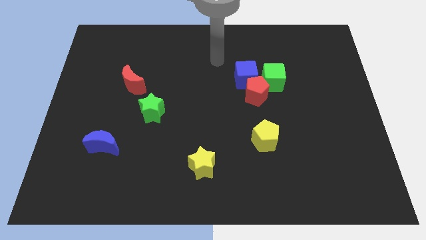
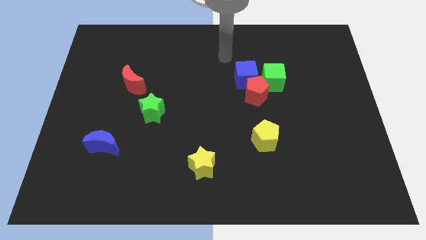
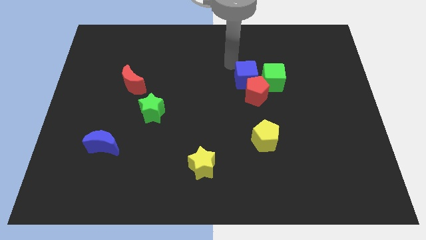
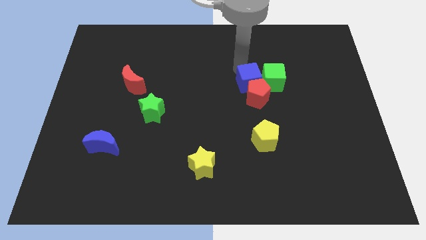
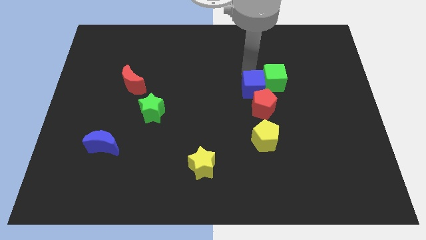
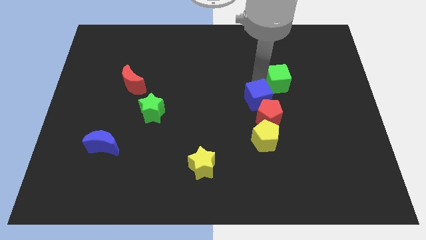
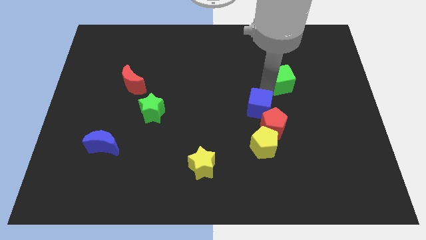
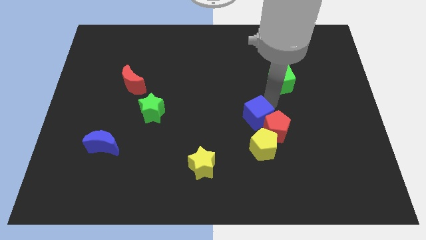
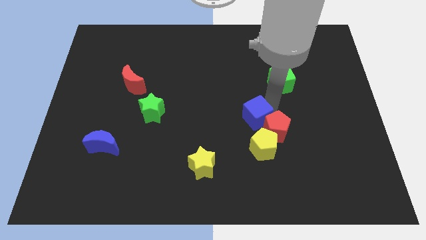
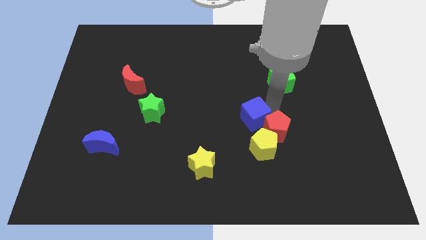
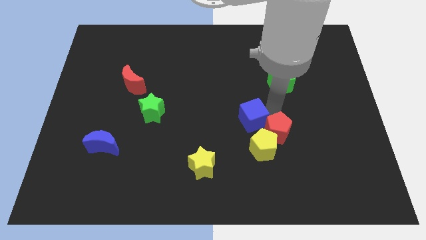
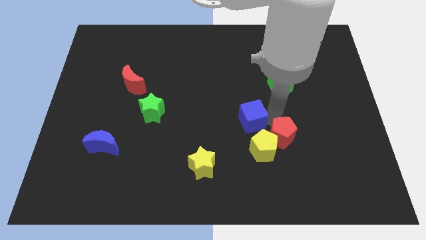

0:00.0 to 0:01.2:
separate the red pentagon from the blue cube and green cube

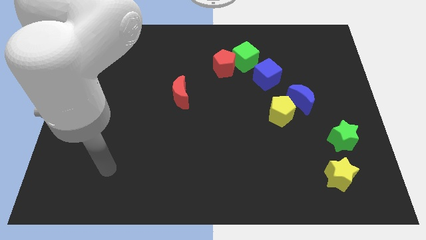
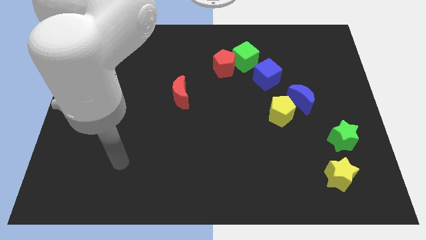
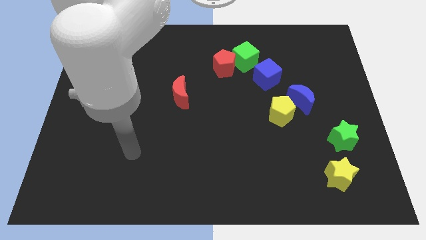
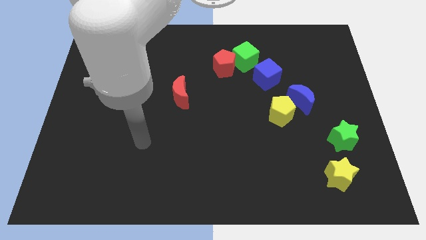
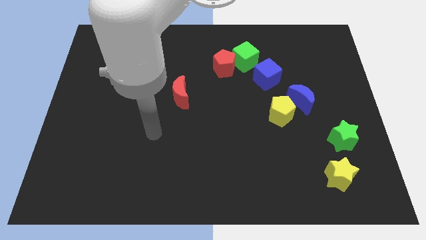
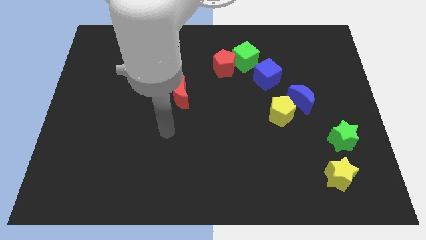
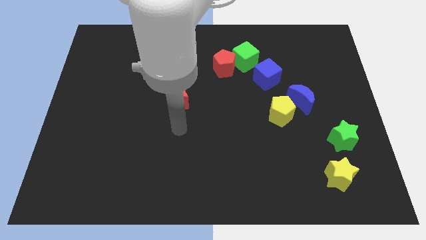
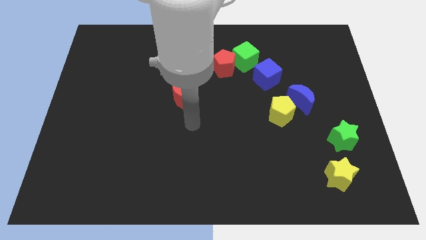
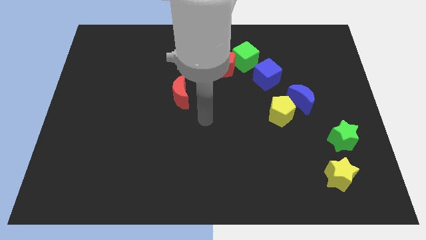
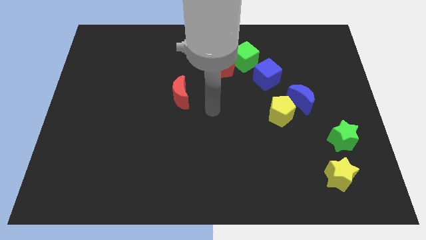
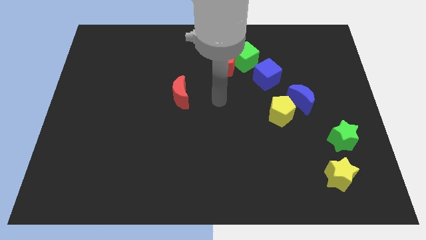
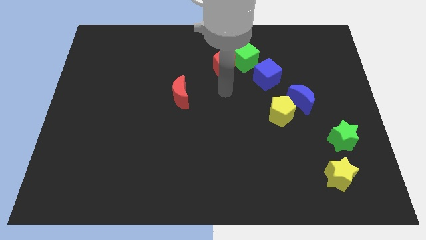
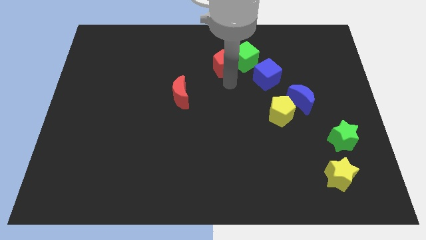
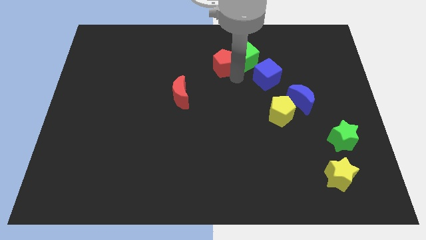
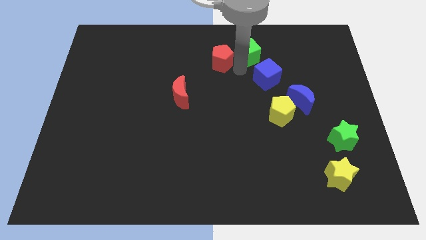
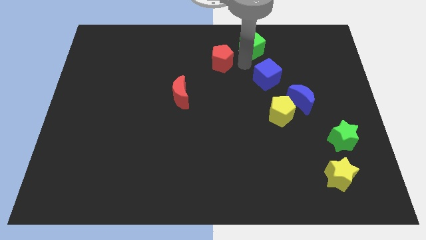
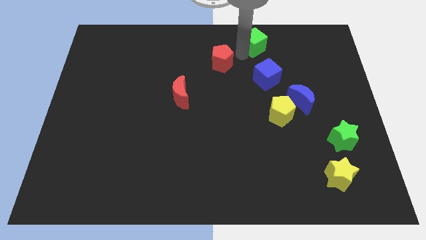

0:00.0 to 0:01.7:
pull the red pentagon apart from the green cube

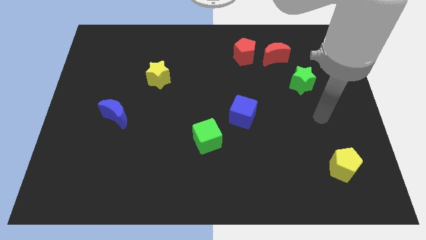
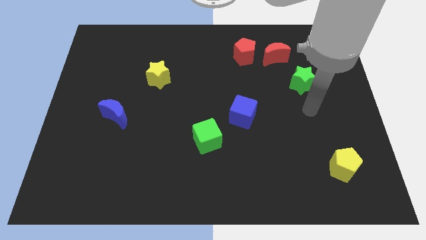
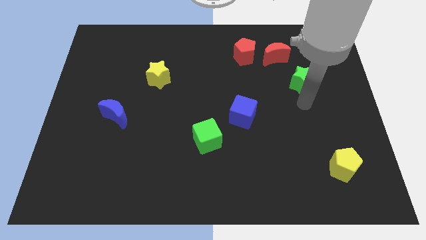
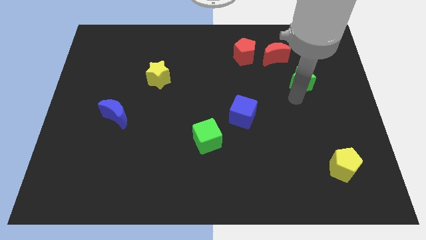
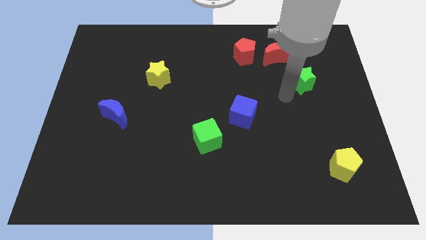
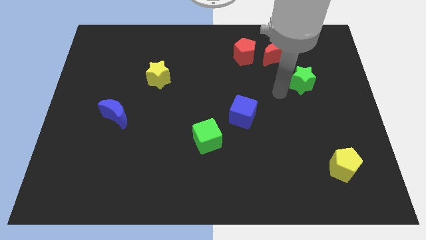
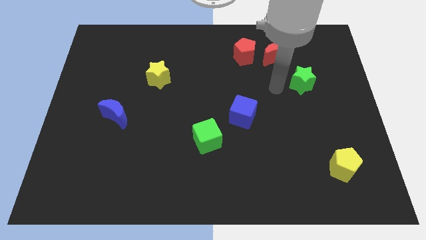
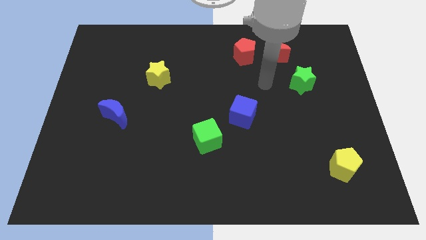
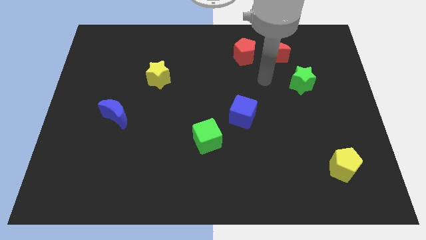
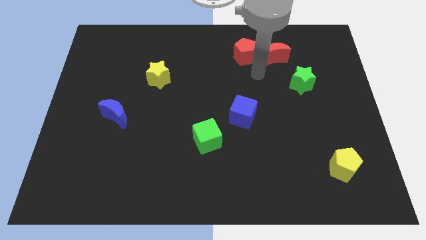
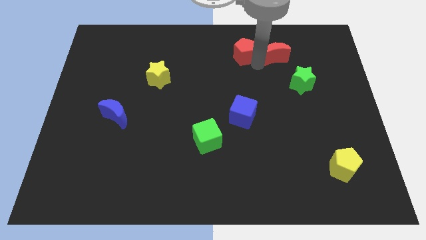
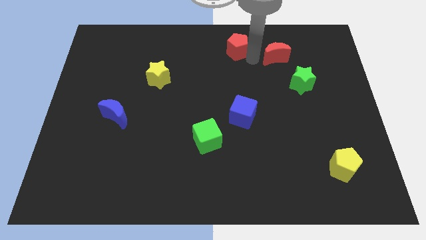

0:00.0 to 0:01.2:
separate the red moon from the red pentagon

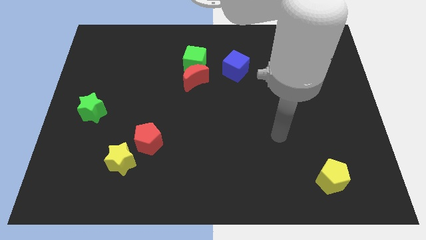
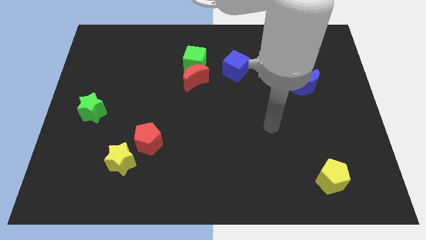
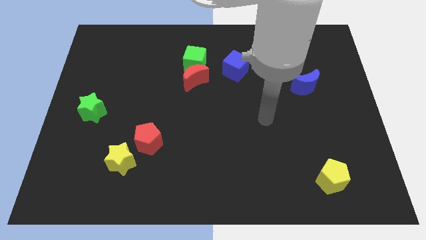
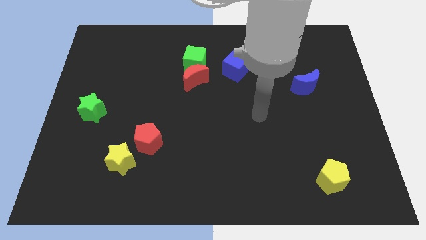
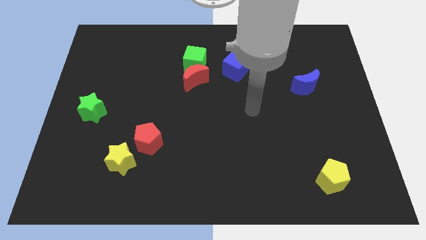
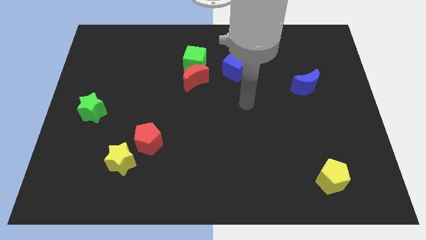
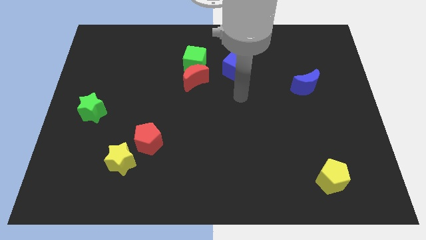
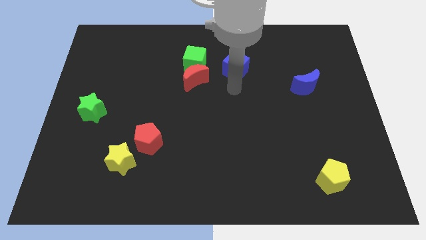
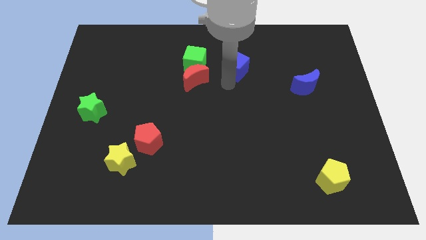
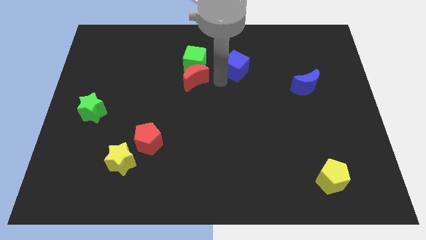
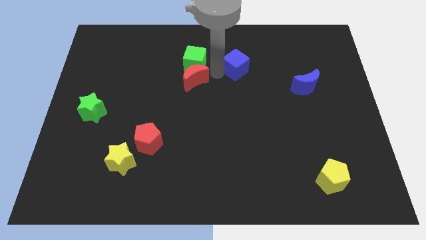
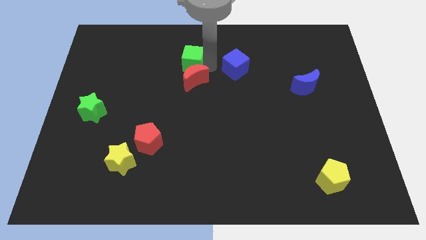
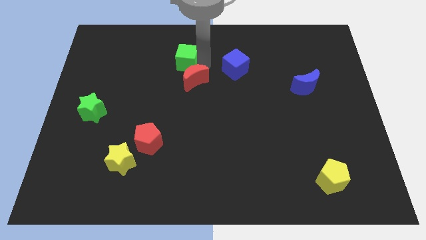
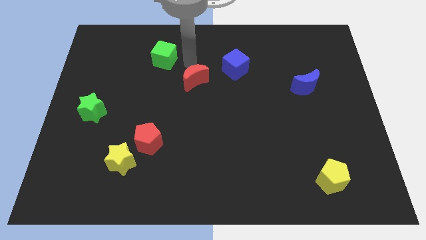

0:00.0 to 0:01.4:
separate the red moon from the green cube

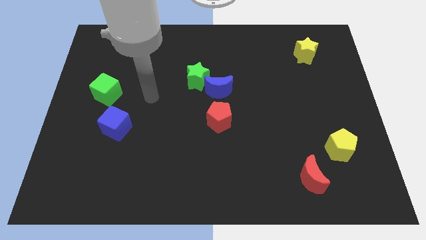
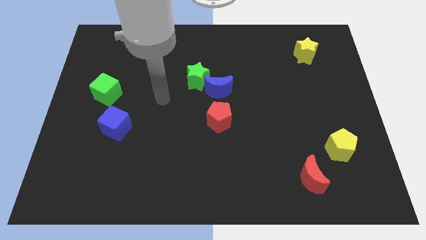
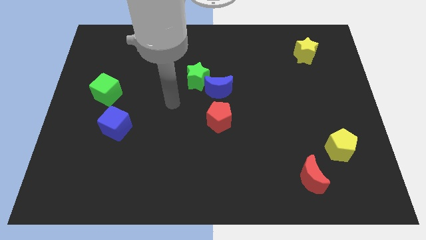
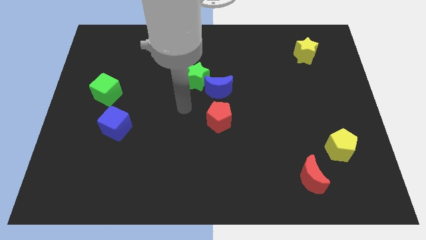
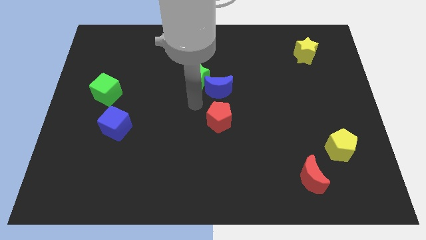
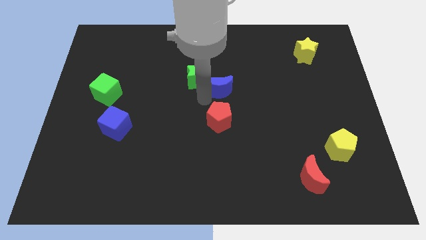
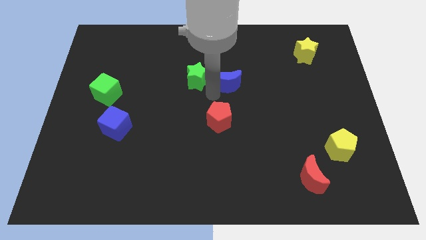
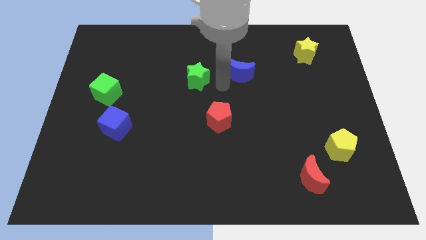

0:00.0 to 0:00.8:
move the green star away from the blue moon

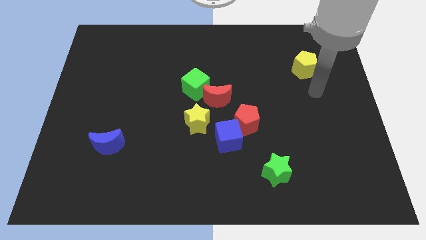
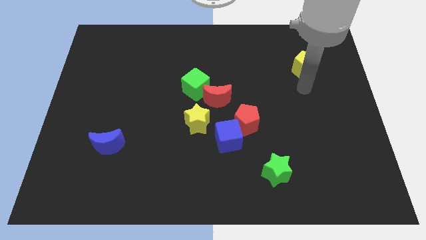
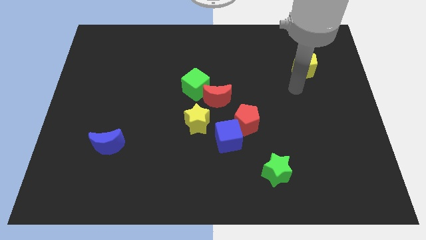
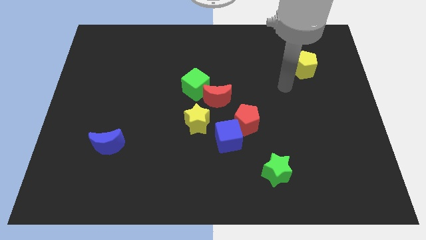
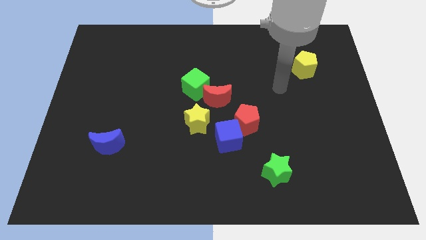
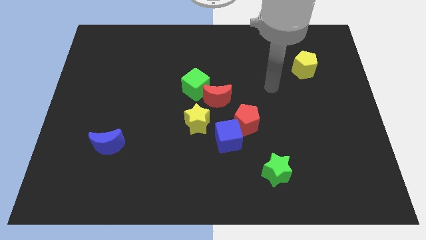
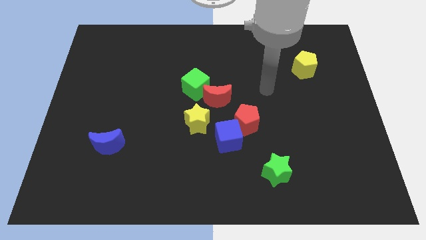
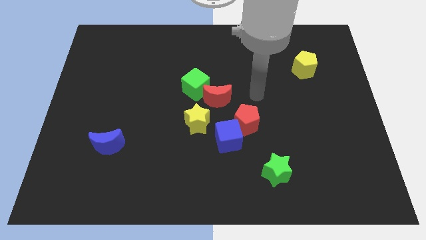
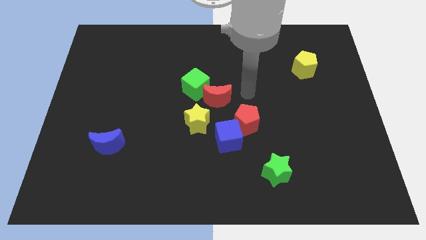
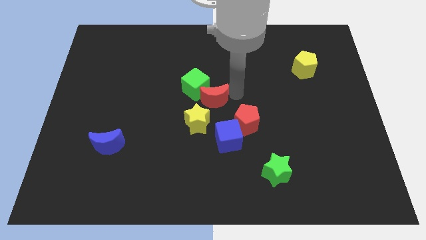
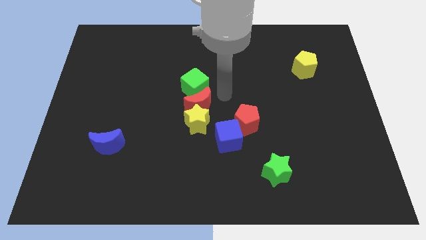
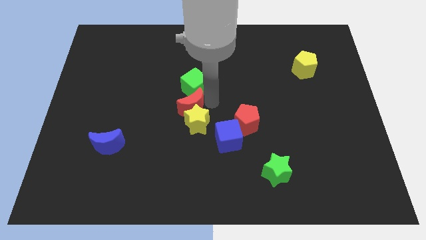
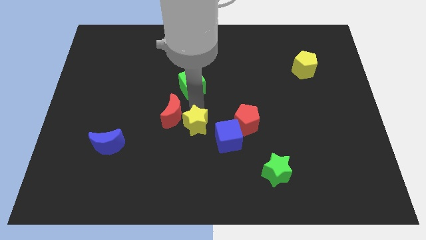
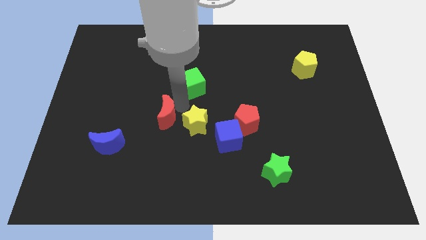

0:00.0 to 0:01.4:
pull the green cube apart from the red moon

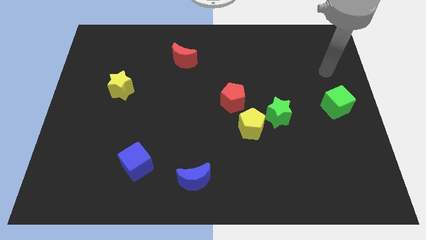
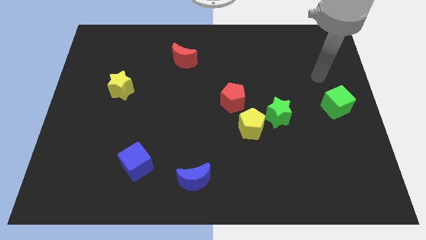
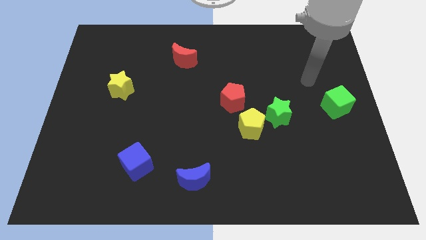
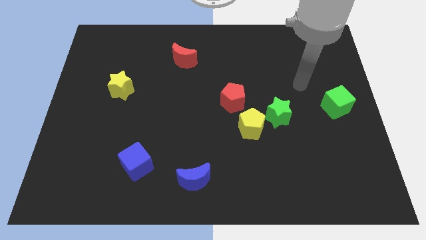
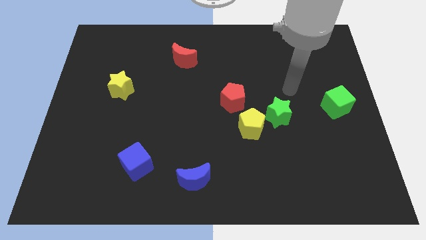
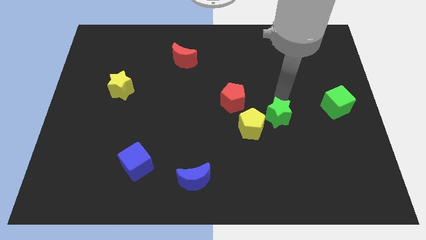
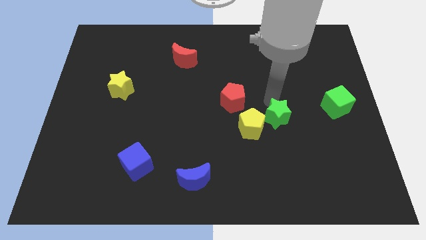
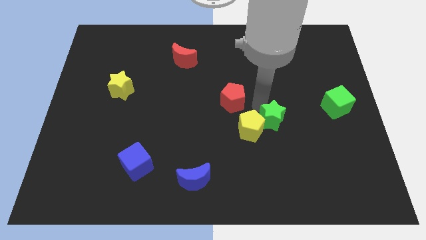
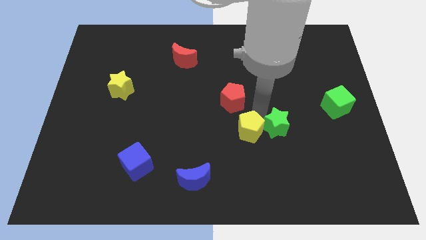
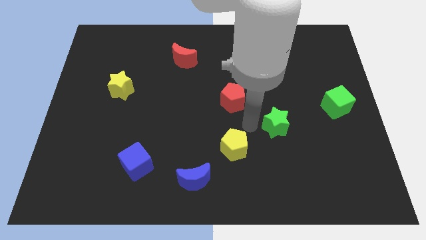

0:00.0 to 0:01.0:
move the green star away from the yellow pentagon

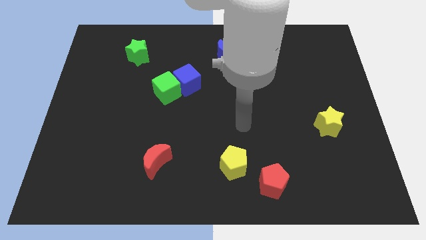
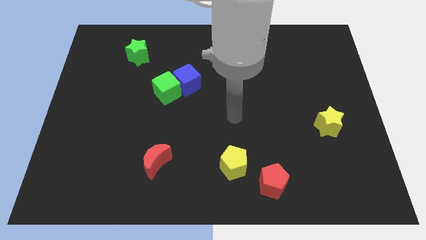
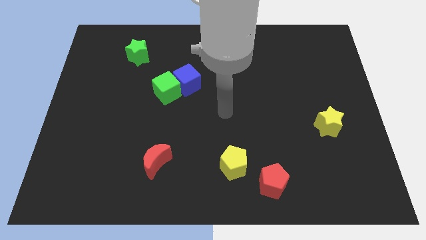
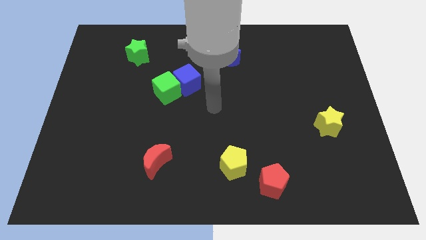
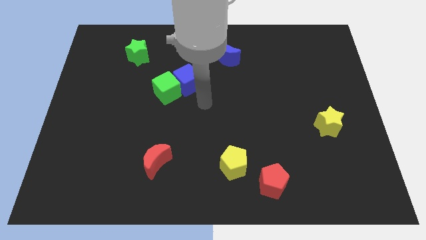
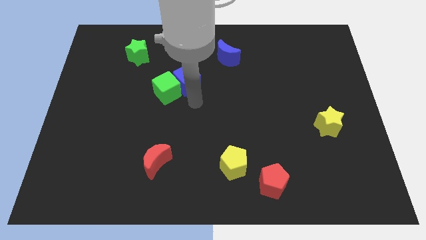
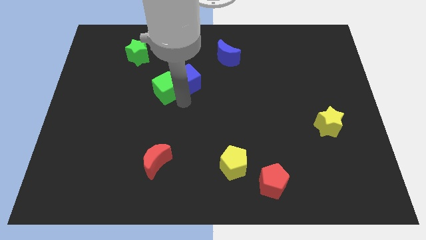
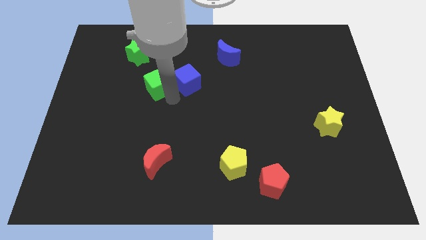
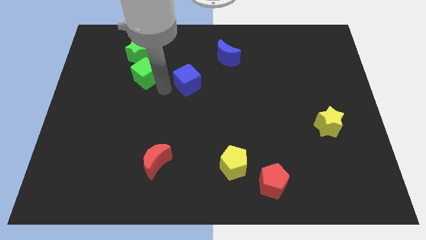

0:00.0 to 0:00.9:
separate the blue cube from the green cube
